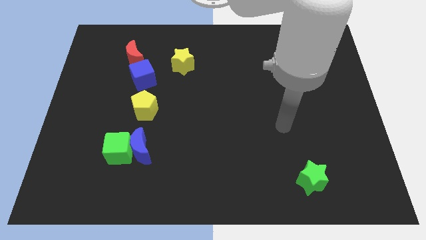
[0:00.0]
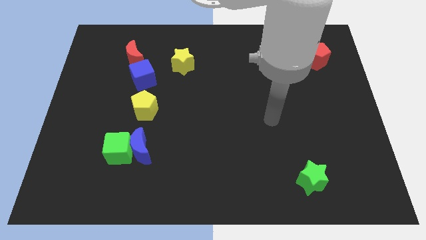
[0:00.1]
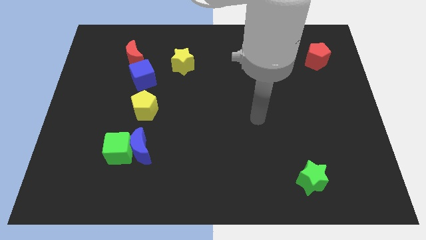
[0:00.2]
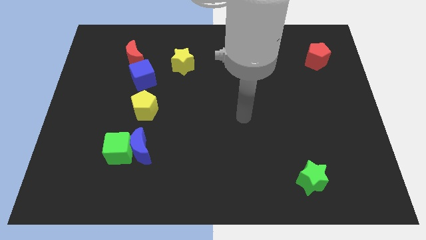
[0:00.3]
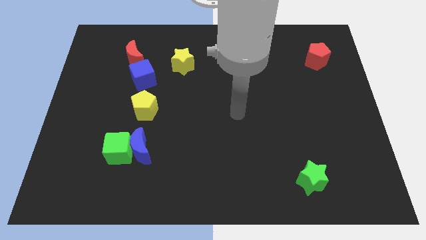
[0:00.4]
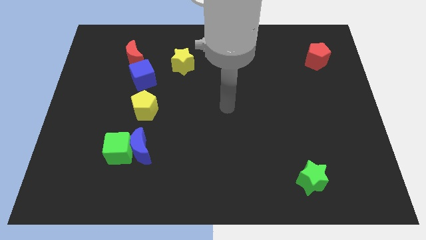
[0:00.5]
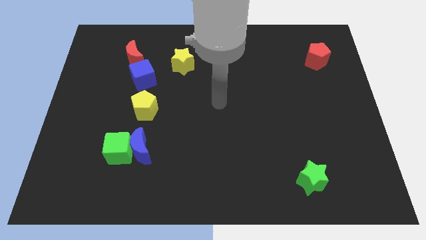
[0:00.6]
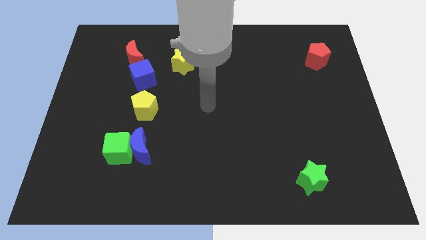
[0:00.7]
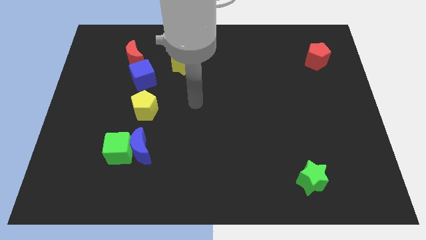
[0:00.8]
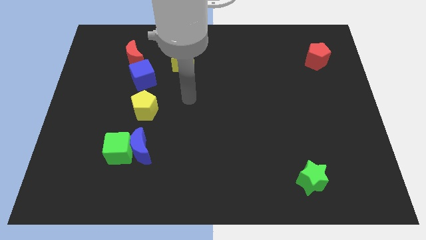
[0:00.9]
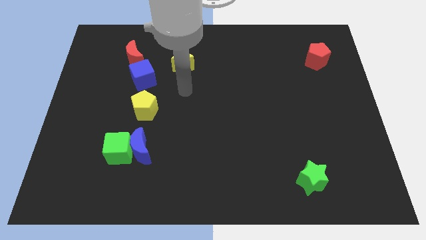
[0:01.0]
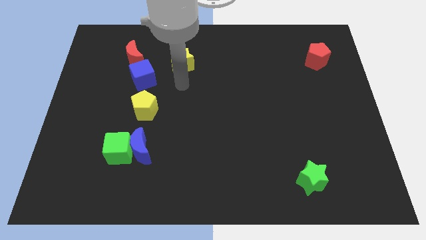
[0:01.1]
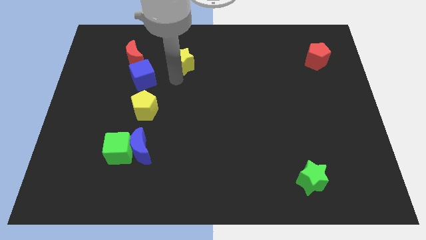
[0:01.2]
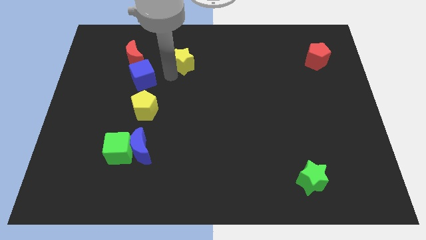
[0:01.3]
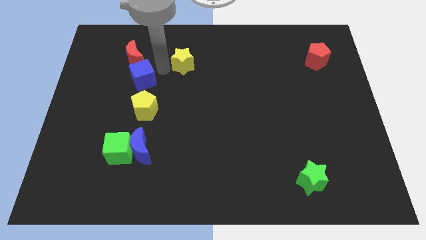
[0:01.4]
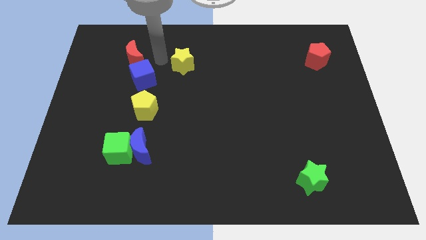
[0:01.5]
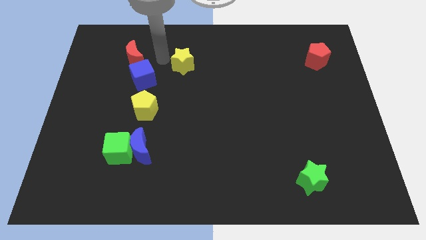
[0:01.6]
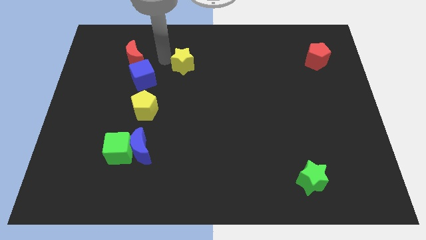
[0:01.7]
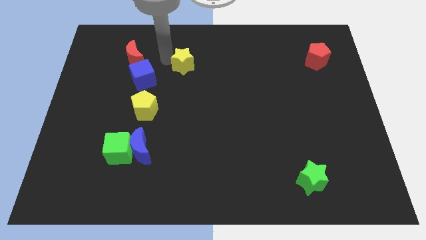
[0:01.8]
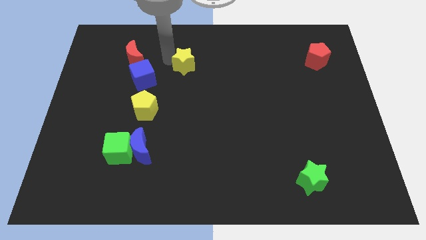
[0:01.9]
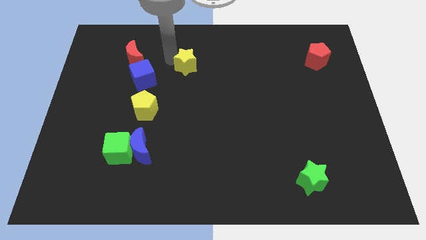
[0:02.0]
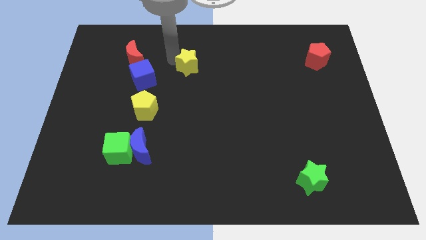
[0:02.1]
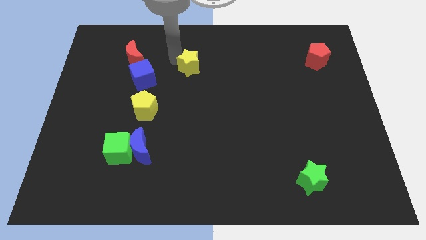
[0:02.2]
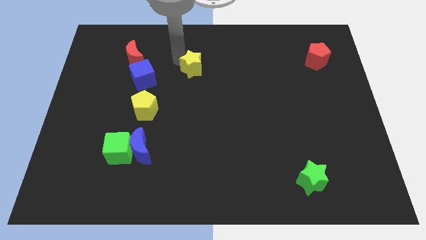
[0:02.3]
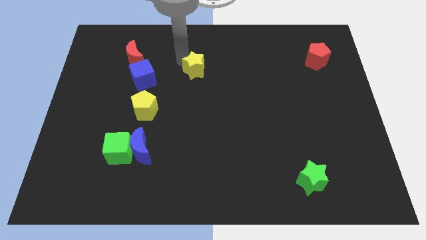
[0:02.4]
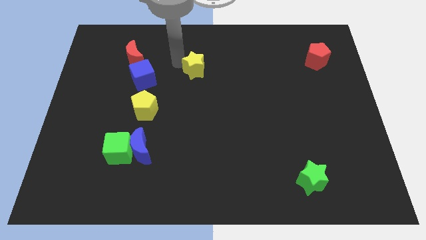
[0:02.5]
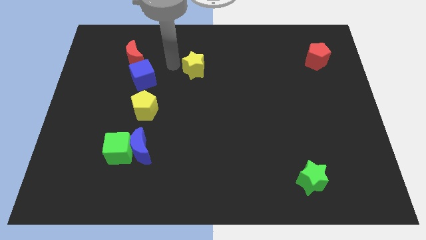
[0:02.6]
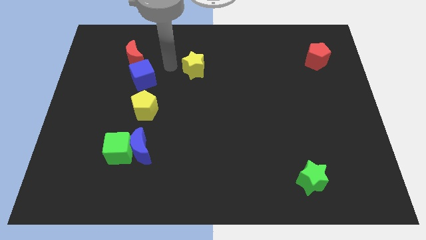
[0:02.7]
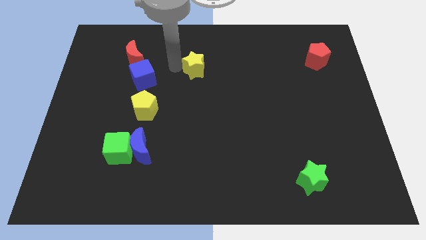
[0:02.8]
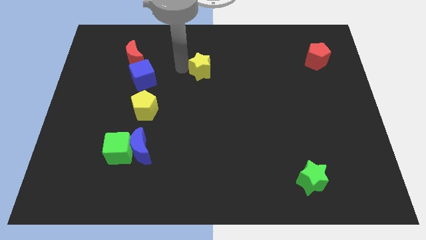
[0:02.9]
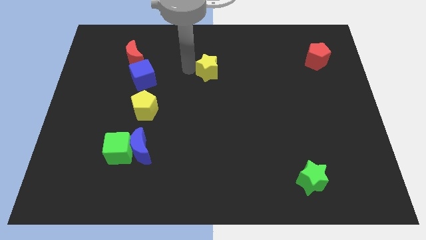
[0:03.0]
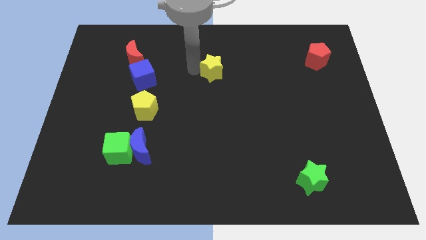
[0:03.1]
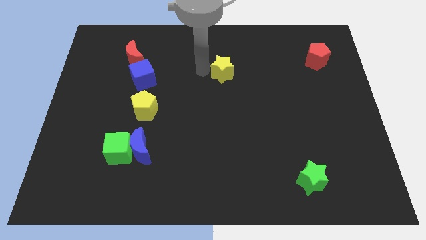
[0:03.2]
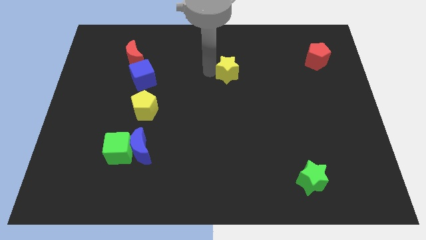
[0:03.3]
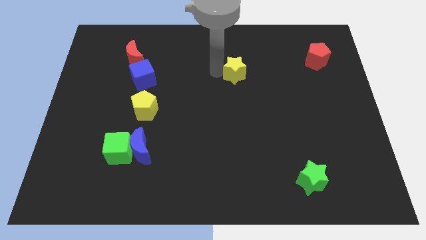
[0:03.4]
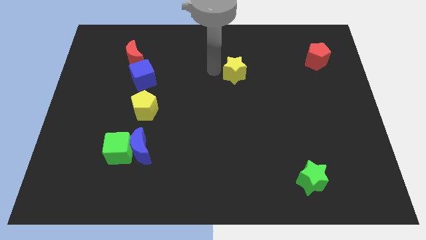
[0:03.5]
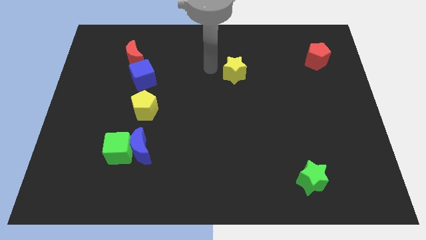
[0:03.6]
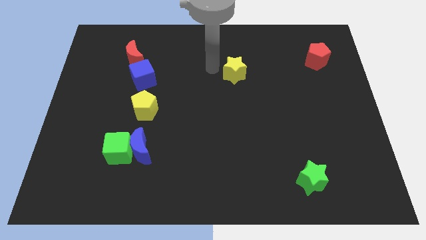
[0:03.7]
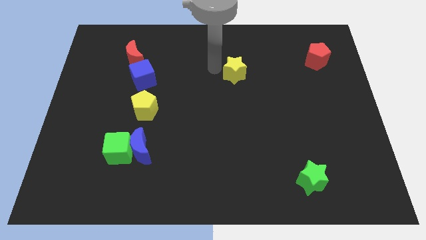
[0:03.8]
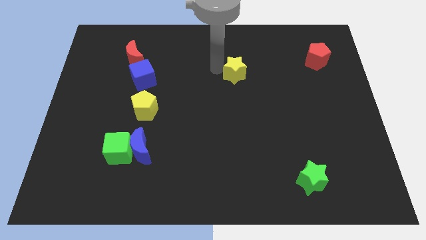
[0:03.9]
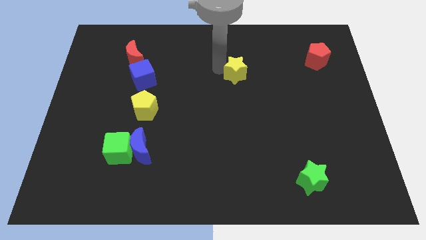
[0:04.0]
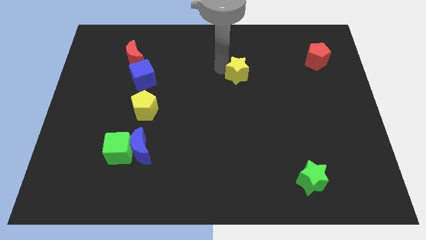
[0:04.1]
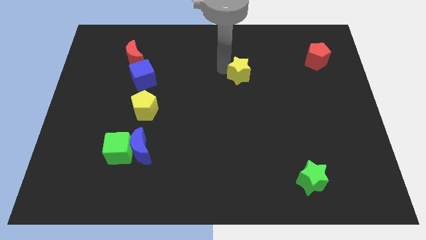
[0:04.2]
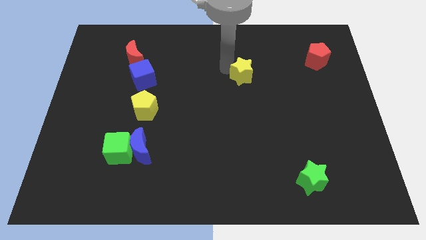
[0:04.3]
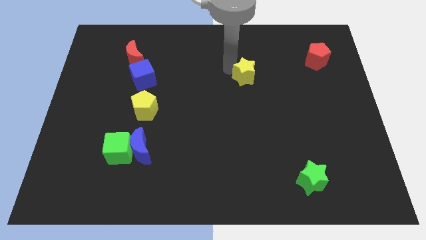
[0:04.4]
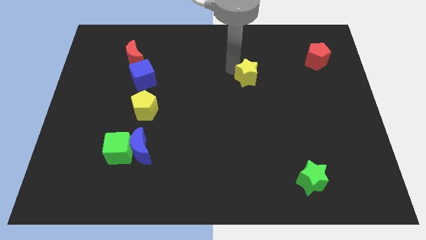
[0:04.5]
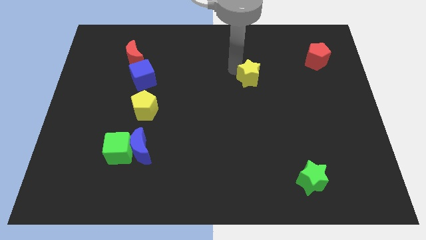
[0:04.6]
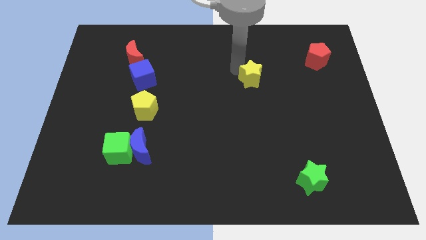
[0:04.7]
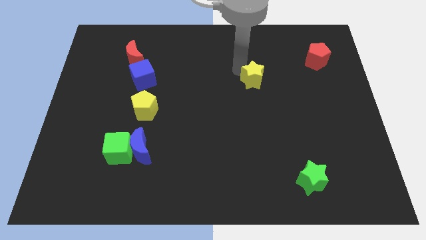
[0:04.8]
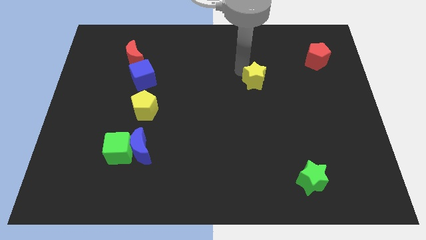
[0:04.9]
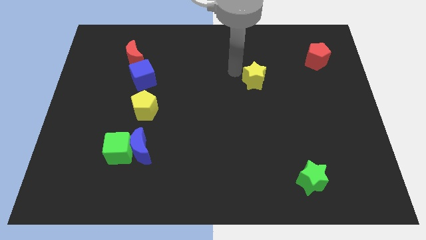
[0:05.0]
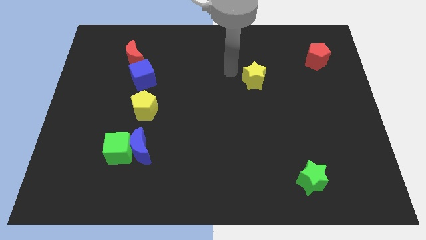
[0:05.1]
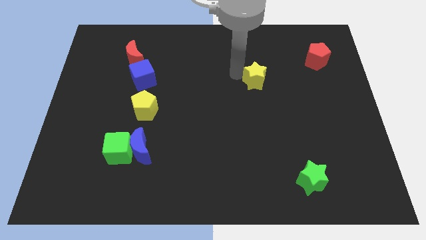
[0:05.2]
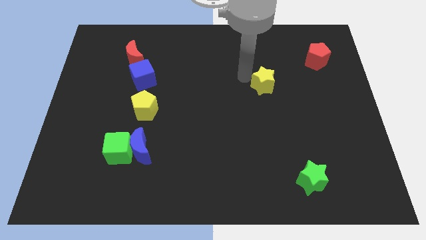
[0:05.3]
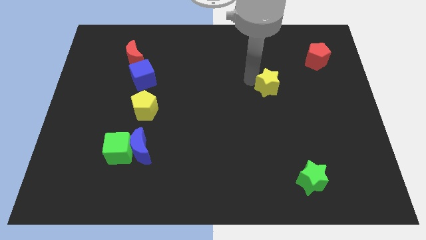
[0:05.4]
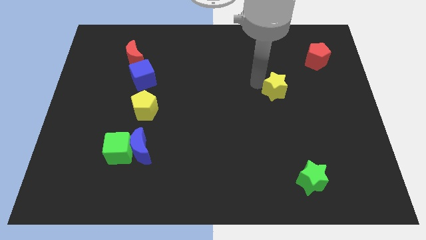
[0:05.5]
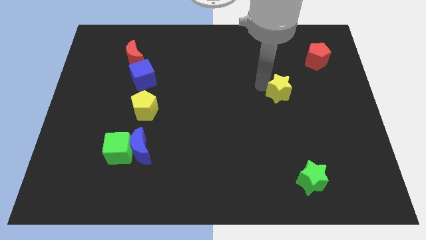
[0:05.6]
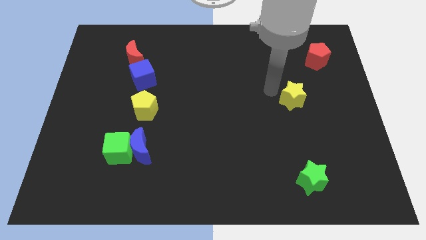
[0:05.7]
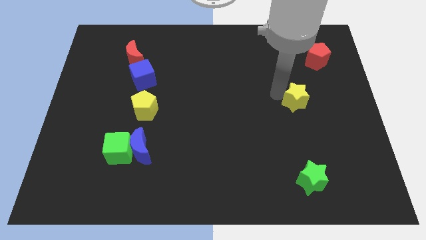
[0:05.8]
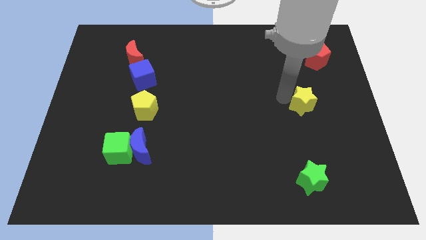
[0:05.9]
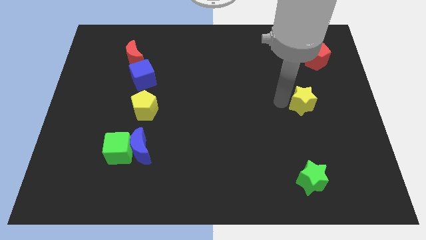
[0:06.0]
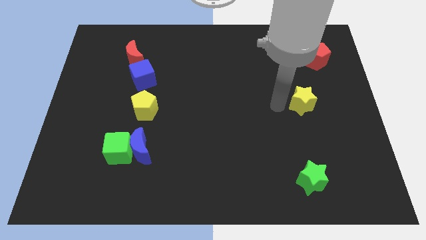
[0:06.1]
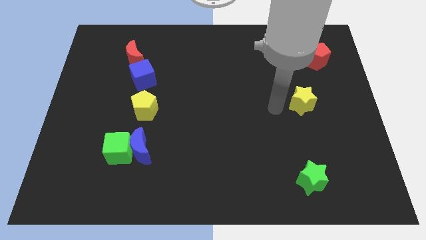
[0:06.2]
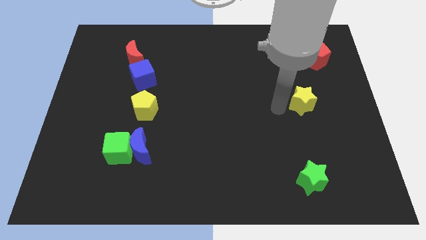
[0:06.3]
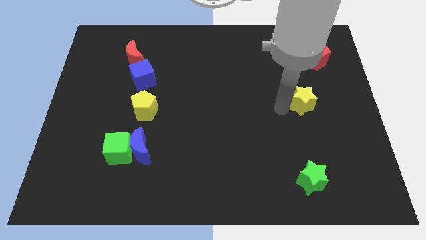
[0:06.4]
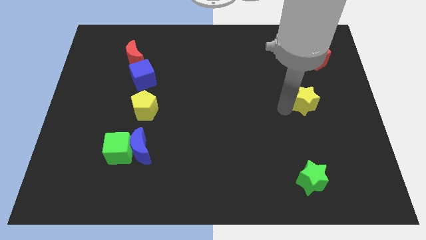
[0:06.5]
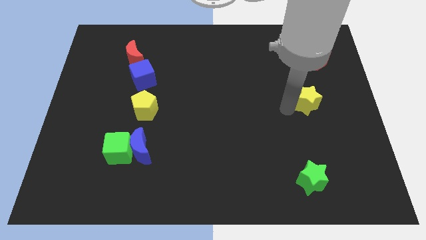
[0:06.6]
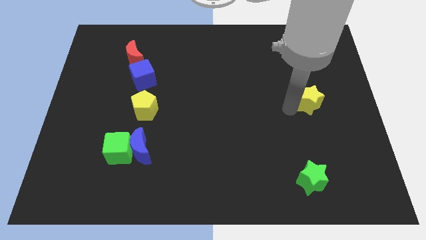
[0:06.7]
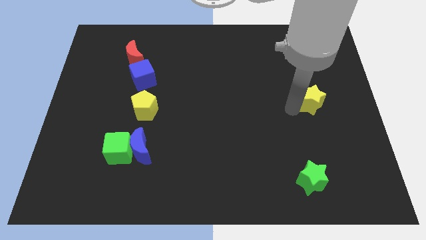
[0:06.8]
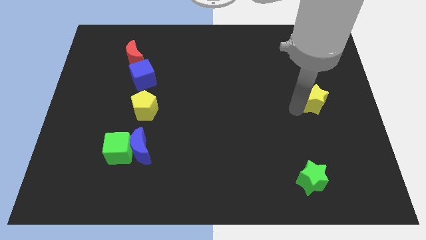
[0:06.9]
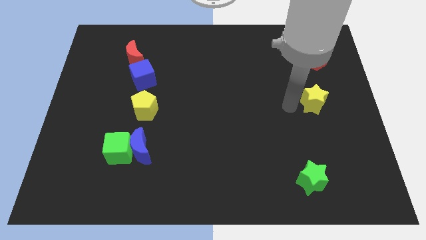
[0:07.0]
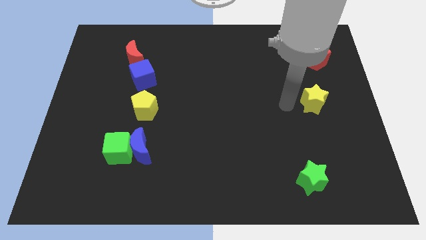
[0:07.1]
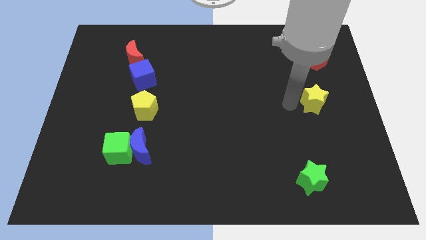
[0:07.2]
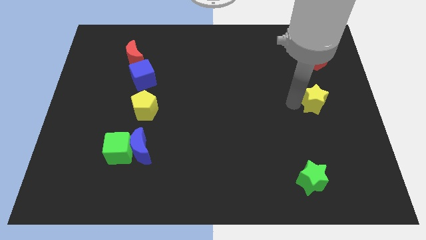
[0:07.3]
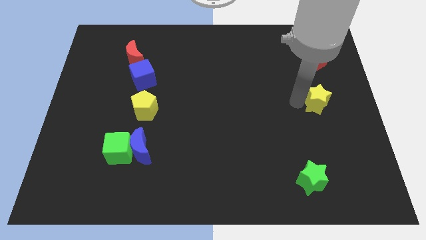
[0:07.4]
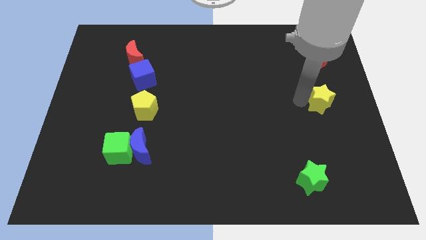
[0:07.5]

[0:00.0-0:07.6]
put the yellow star to the right side
